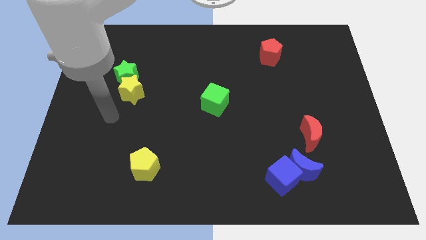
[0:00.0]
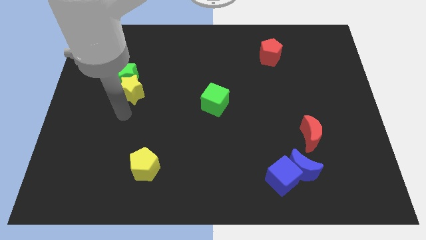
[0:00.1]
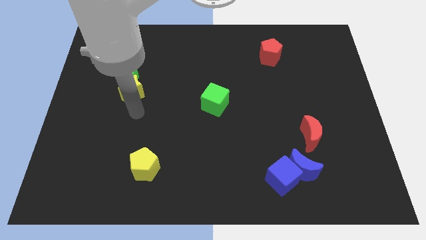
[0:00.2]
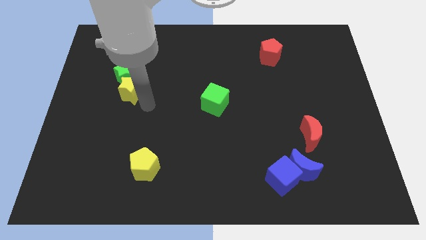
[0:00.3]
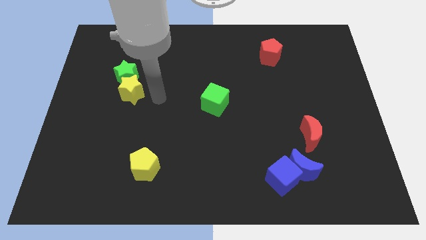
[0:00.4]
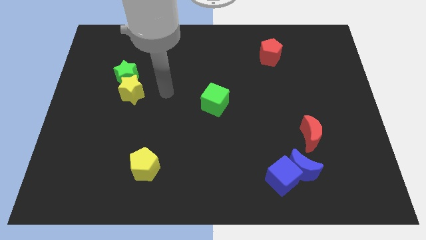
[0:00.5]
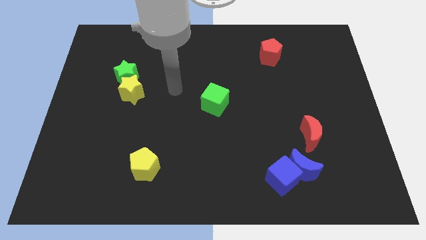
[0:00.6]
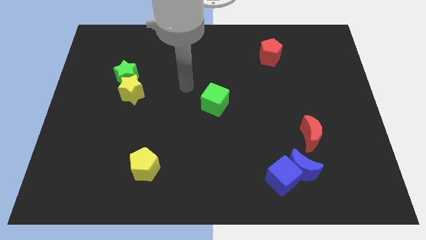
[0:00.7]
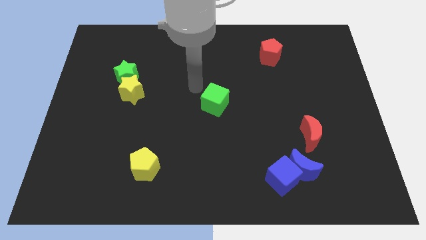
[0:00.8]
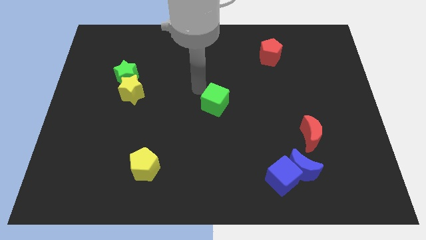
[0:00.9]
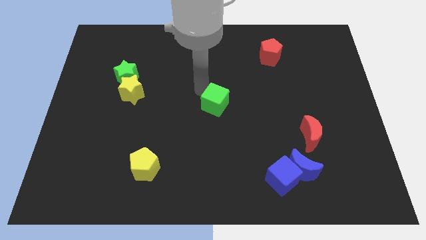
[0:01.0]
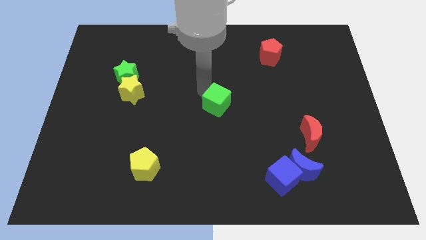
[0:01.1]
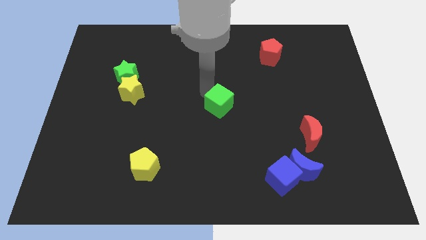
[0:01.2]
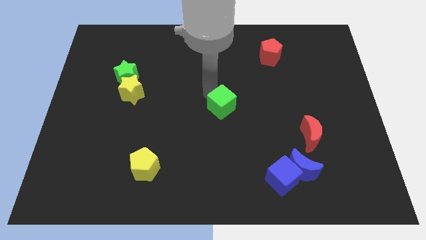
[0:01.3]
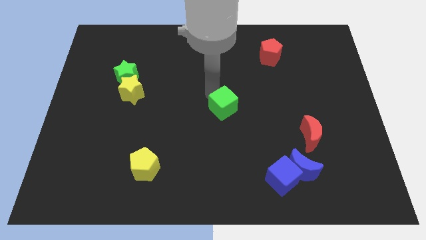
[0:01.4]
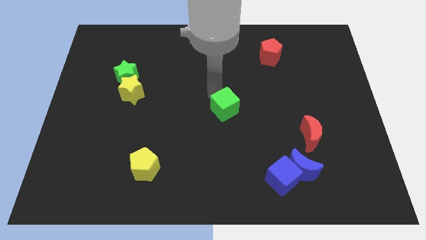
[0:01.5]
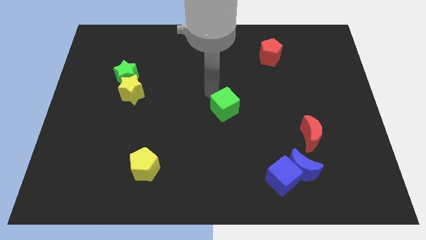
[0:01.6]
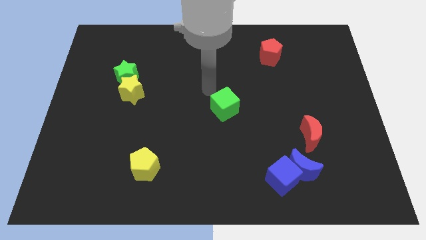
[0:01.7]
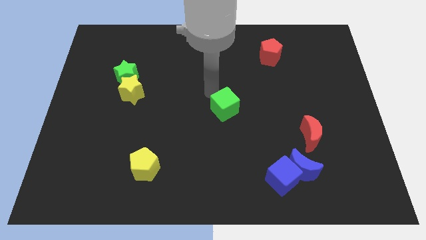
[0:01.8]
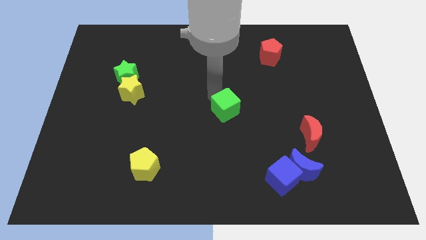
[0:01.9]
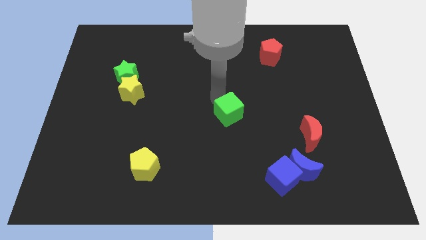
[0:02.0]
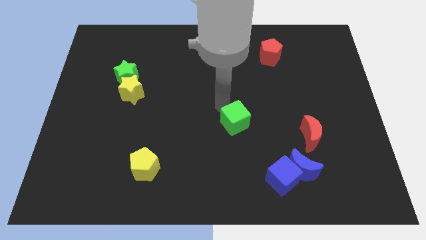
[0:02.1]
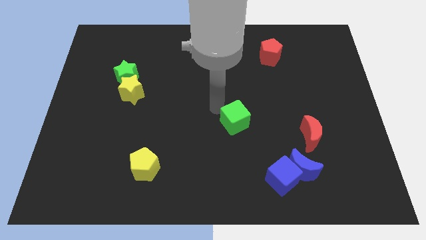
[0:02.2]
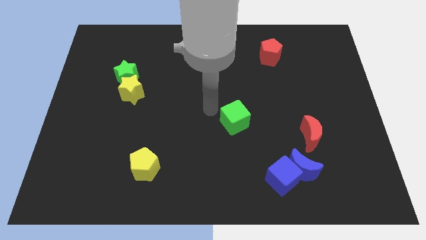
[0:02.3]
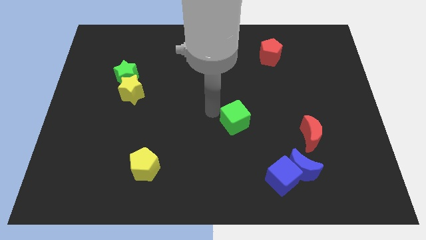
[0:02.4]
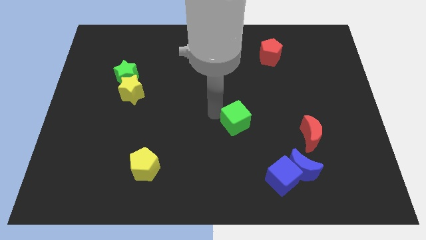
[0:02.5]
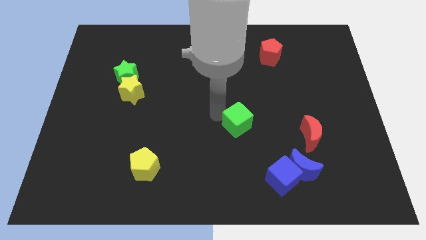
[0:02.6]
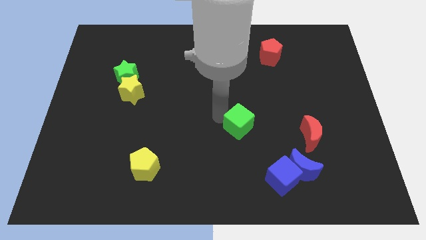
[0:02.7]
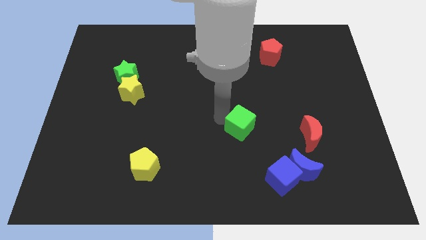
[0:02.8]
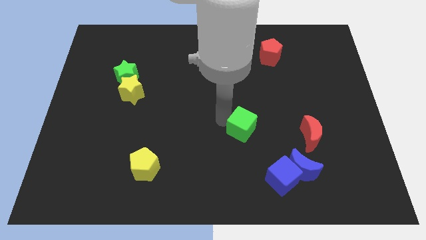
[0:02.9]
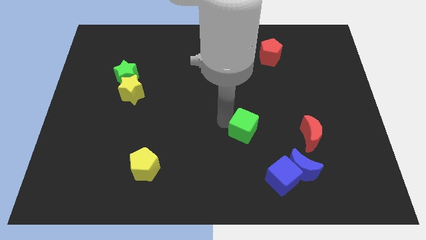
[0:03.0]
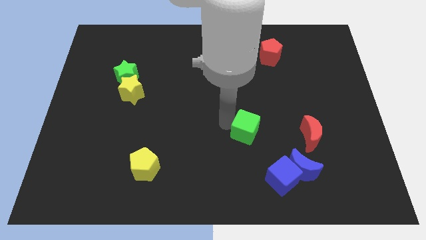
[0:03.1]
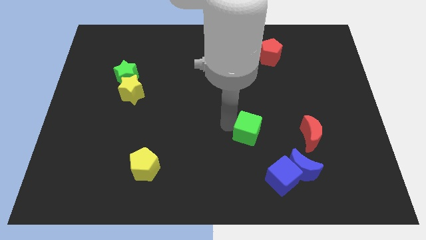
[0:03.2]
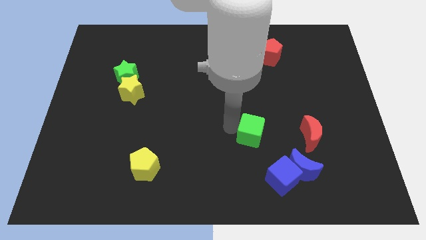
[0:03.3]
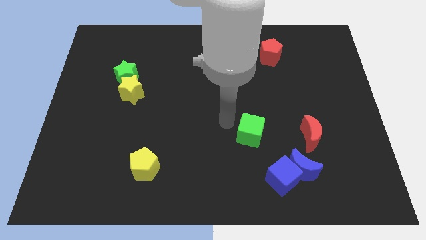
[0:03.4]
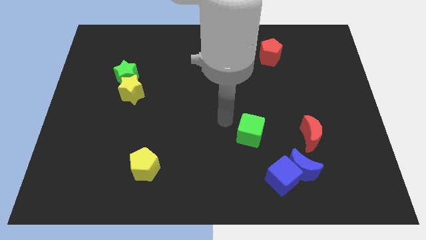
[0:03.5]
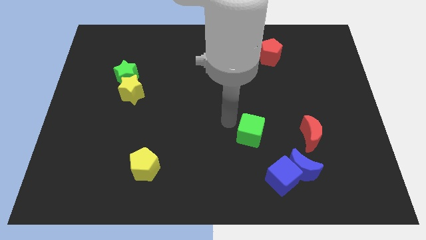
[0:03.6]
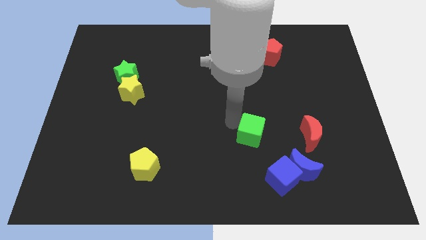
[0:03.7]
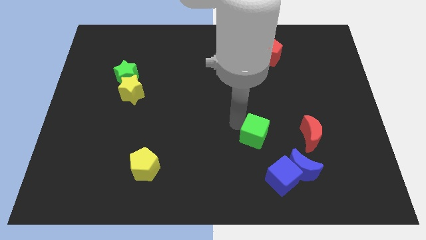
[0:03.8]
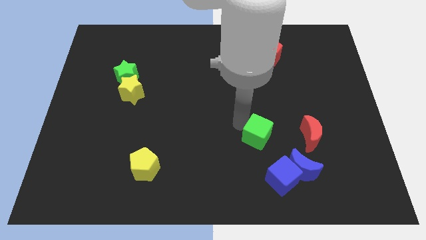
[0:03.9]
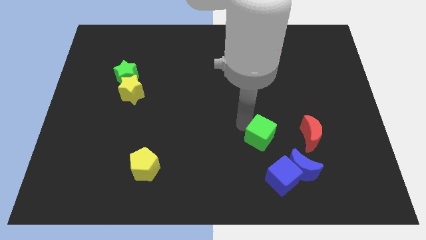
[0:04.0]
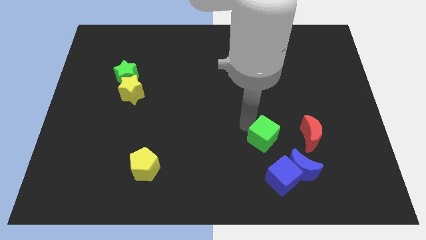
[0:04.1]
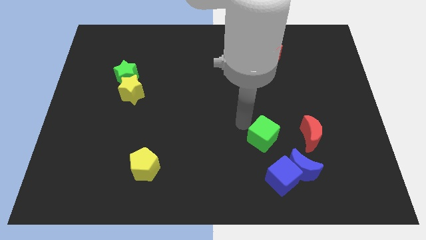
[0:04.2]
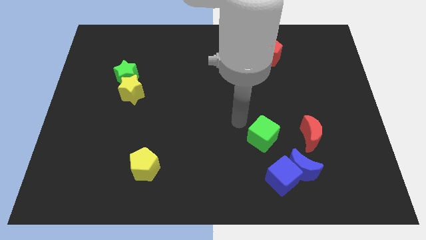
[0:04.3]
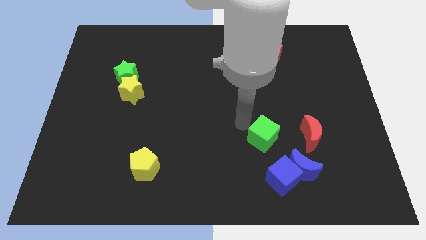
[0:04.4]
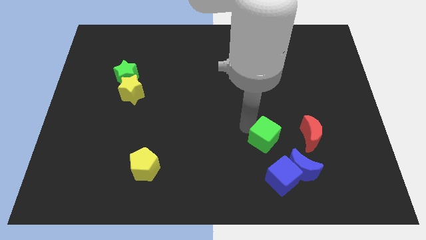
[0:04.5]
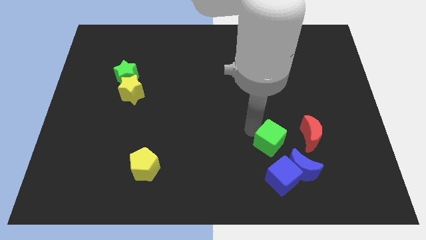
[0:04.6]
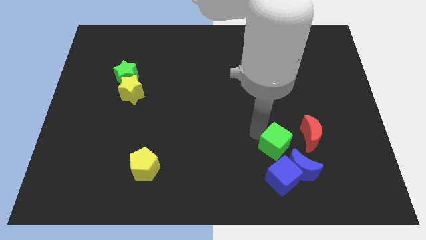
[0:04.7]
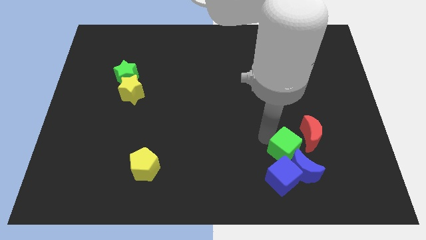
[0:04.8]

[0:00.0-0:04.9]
push the green cube to the blue moon

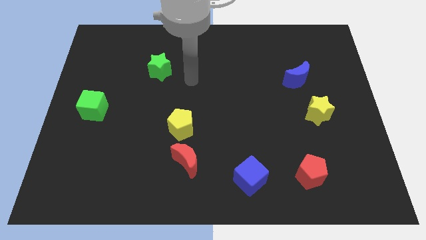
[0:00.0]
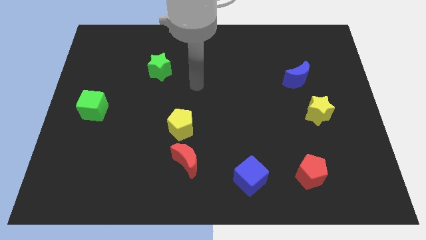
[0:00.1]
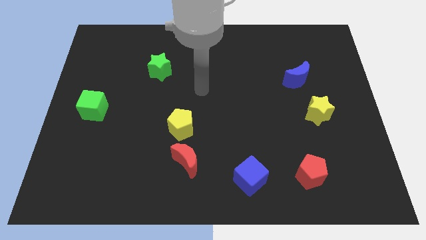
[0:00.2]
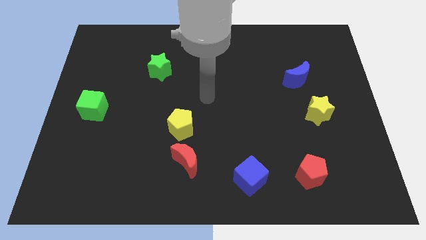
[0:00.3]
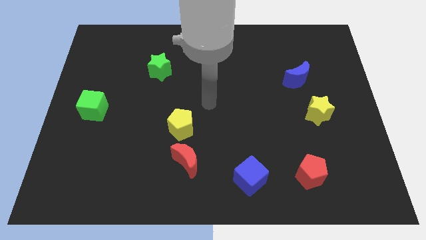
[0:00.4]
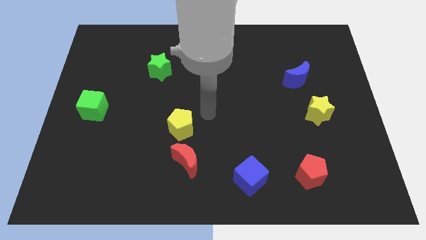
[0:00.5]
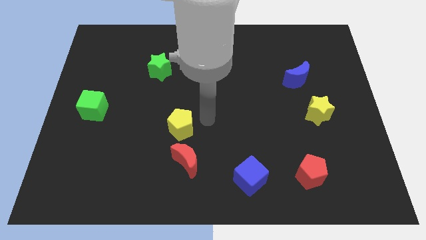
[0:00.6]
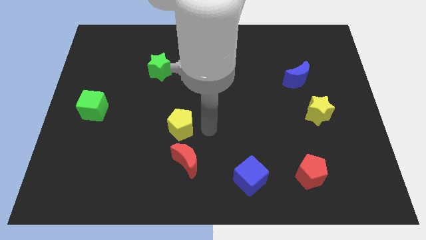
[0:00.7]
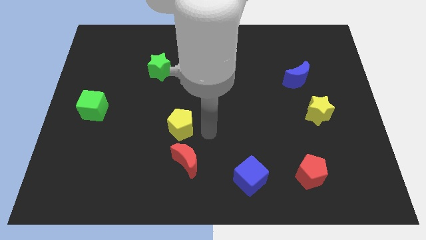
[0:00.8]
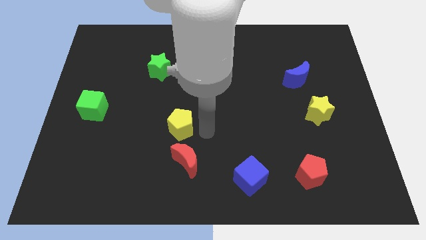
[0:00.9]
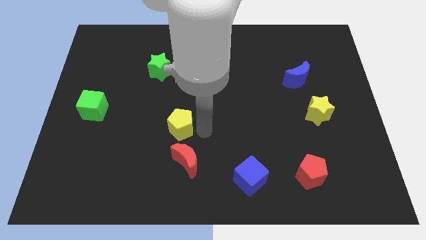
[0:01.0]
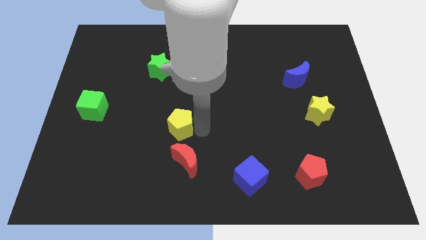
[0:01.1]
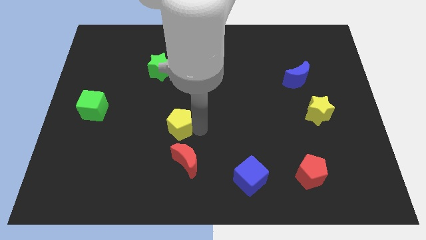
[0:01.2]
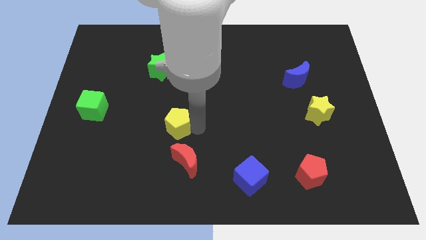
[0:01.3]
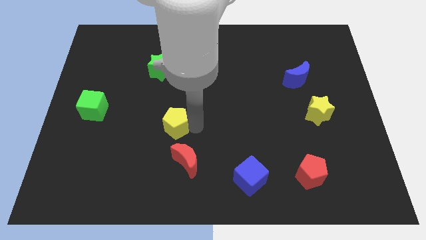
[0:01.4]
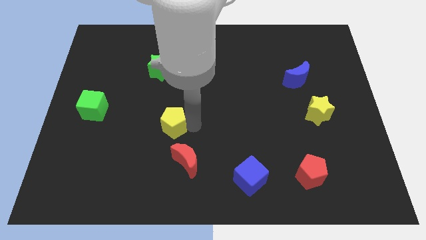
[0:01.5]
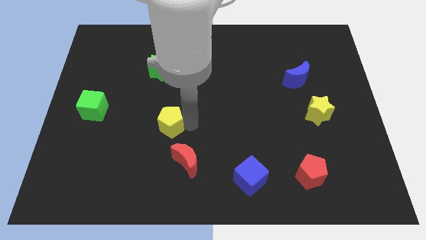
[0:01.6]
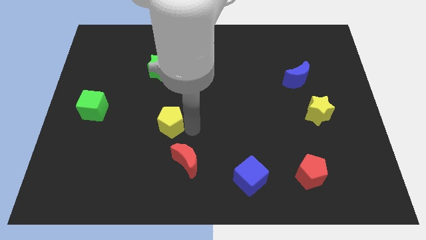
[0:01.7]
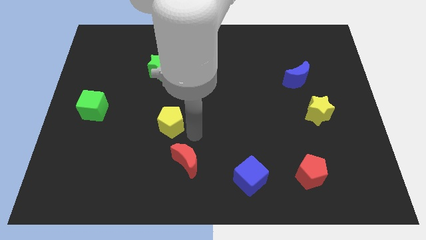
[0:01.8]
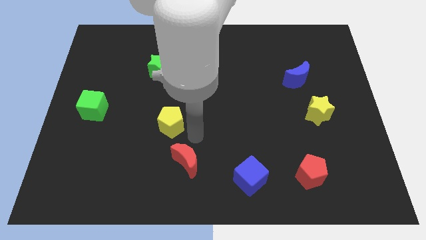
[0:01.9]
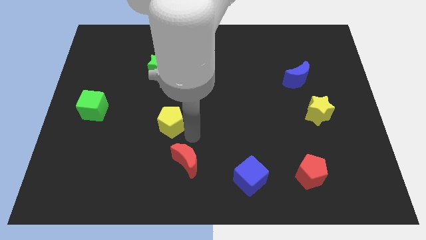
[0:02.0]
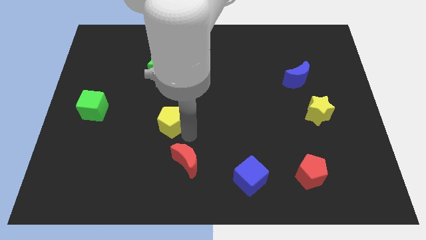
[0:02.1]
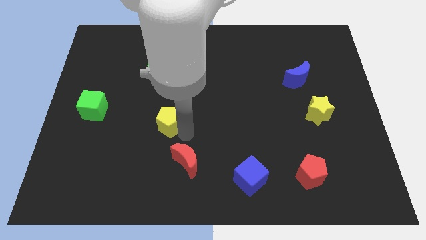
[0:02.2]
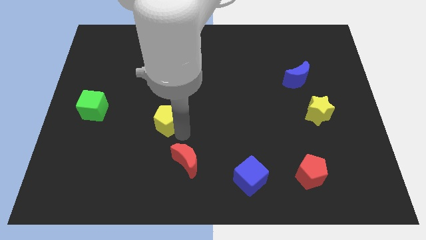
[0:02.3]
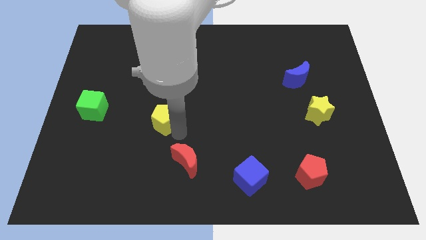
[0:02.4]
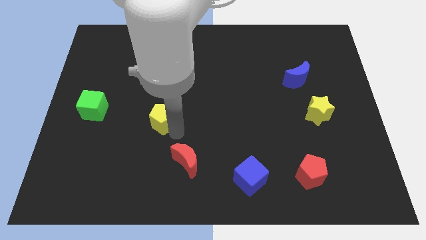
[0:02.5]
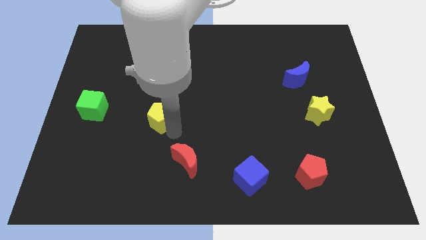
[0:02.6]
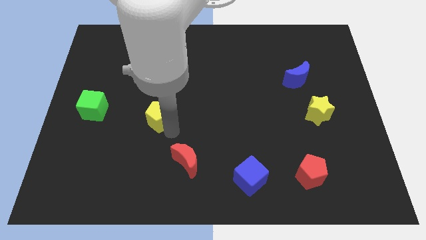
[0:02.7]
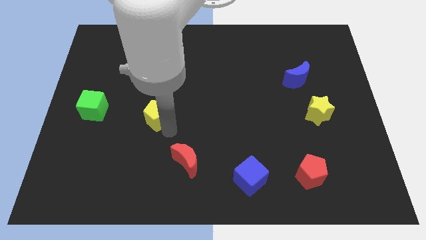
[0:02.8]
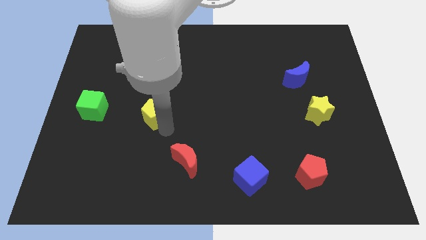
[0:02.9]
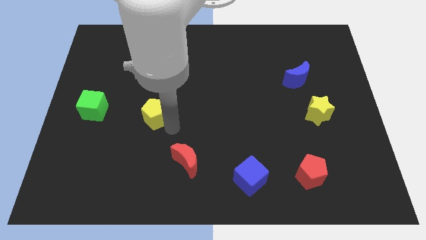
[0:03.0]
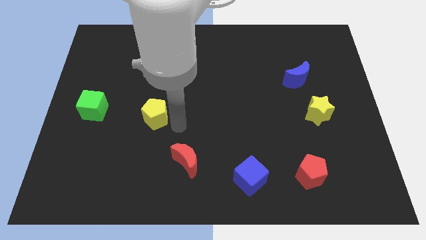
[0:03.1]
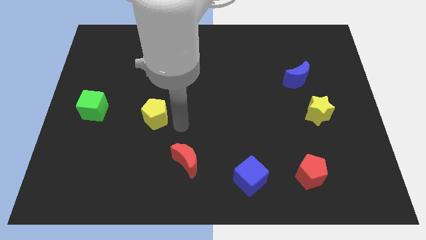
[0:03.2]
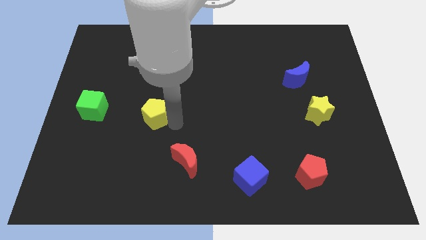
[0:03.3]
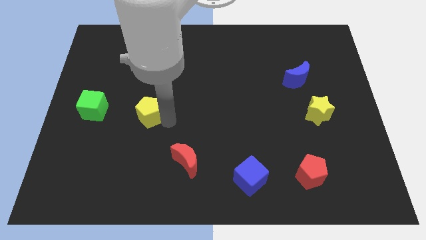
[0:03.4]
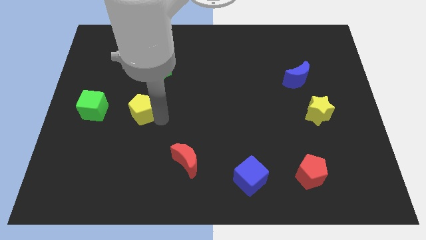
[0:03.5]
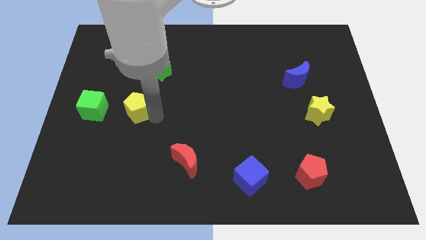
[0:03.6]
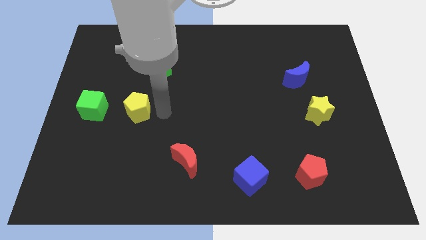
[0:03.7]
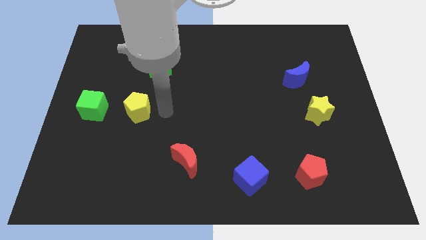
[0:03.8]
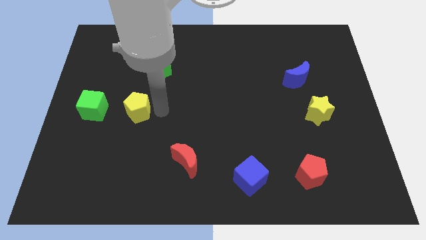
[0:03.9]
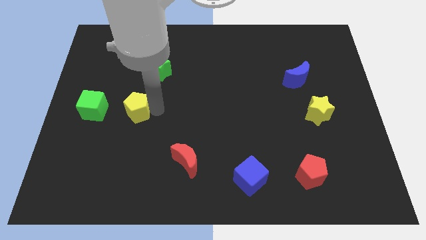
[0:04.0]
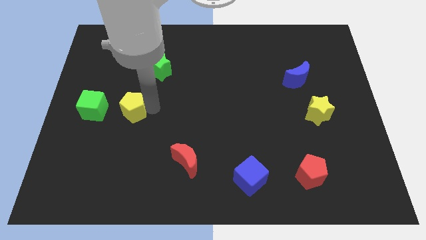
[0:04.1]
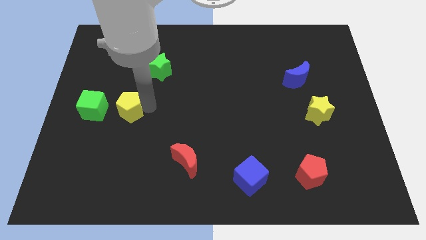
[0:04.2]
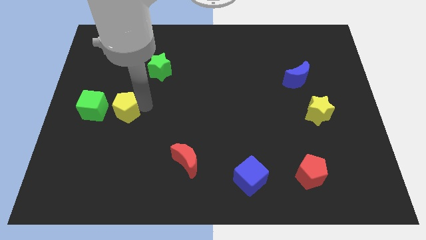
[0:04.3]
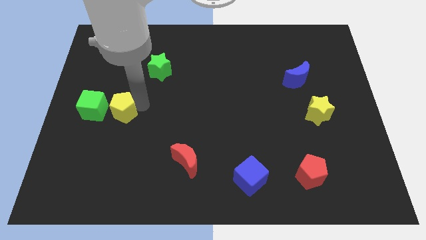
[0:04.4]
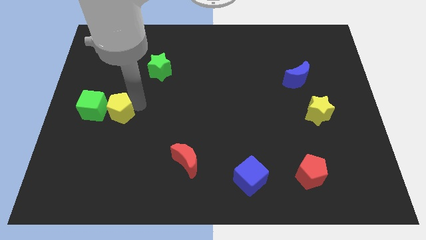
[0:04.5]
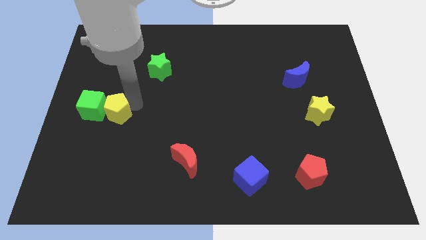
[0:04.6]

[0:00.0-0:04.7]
put the yellow pentagon to the green cube
